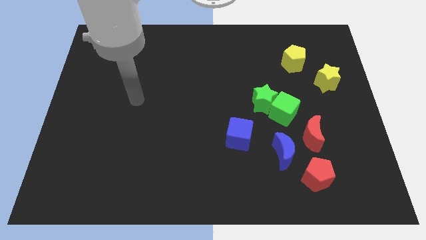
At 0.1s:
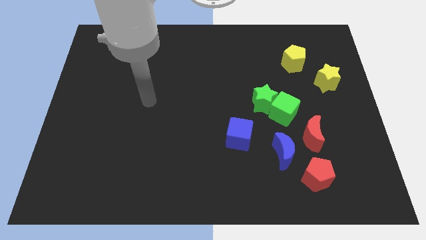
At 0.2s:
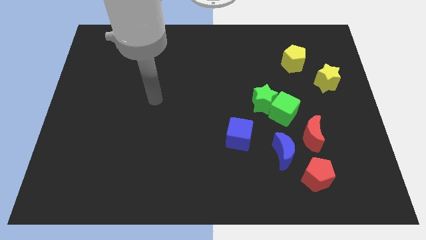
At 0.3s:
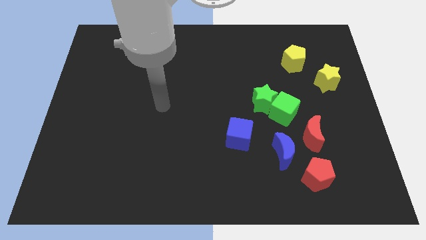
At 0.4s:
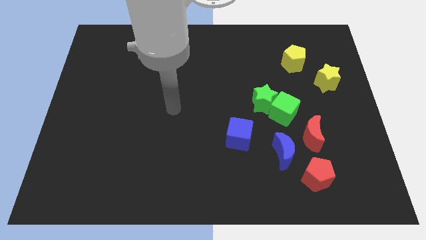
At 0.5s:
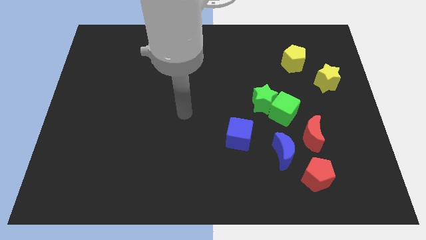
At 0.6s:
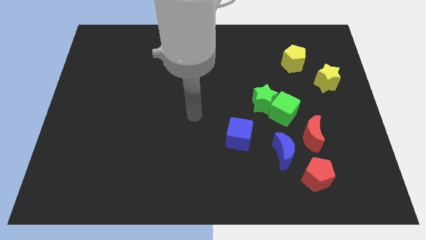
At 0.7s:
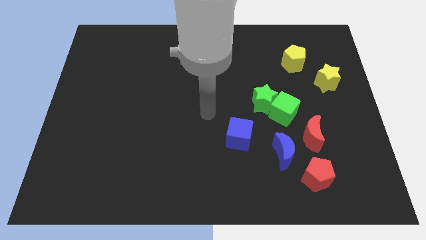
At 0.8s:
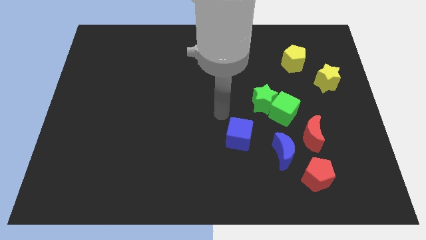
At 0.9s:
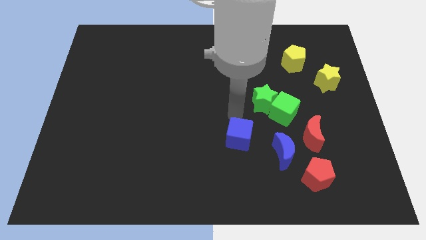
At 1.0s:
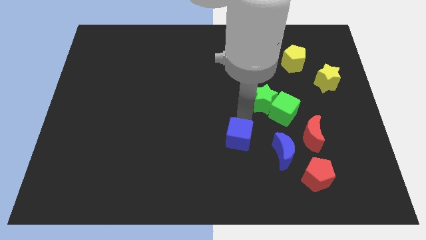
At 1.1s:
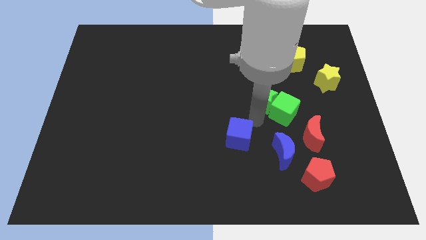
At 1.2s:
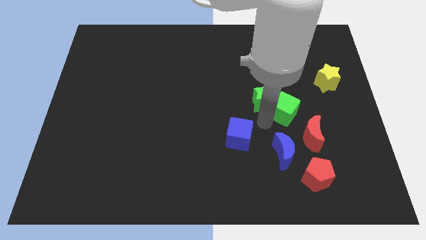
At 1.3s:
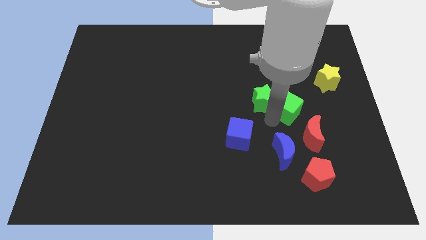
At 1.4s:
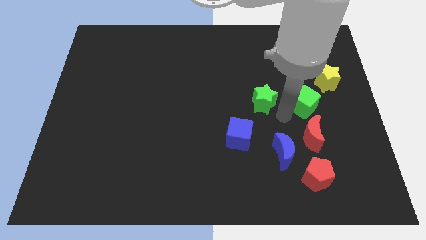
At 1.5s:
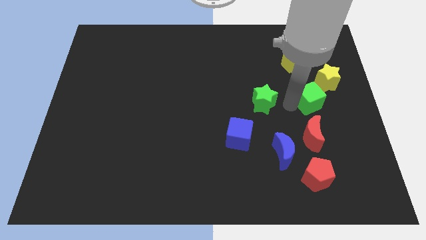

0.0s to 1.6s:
move the green star away from the green cube

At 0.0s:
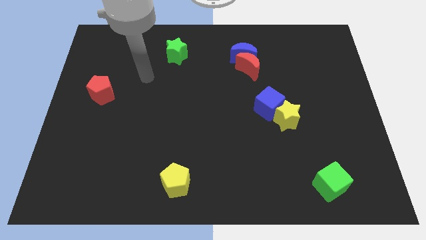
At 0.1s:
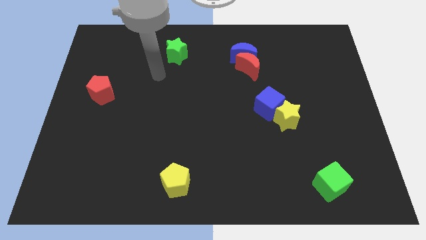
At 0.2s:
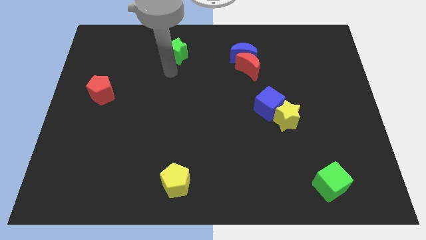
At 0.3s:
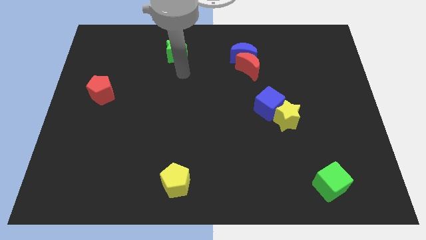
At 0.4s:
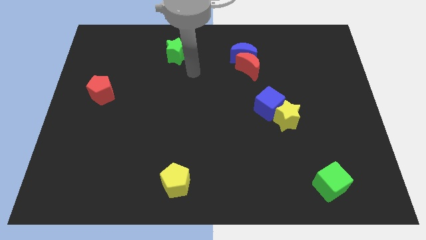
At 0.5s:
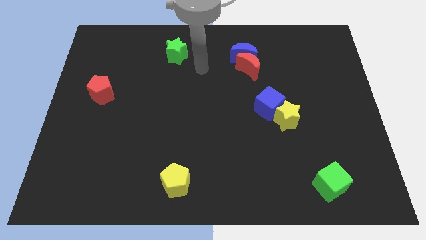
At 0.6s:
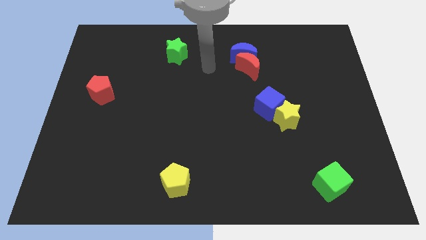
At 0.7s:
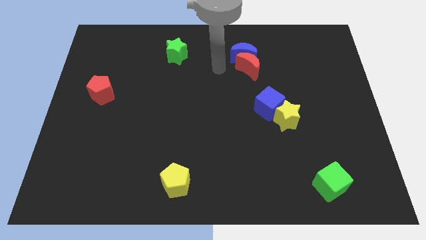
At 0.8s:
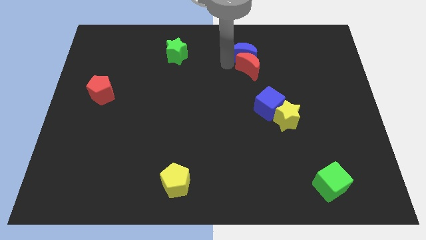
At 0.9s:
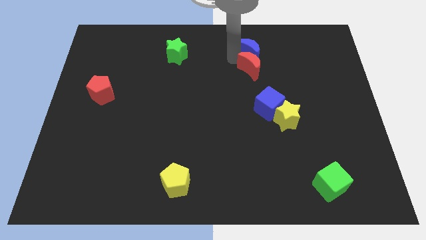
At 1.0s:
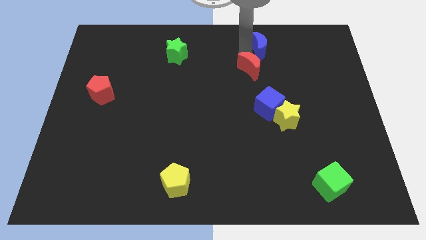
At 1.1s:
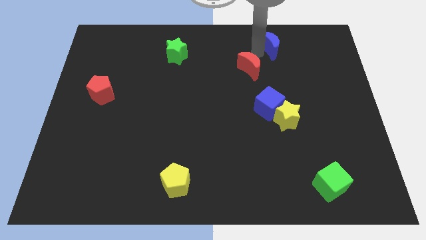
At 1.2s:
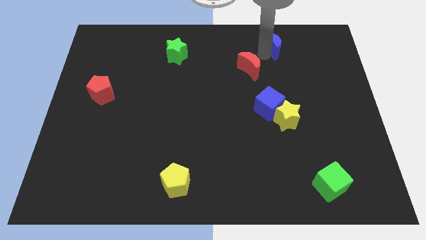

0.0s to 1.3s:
separate the red moon from the blue moon

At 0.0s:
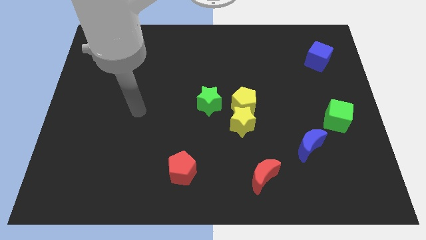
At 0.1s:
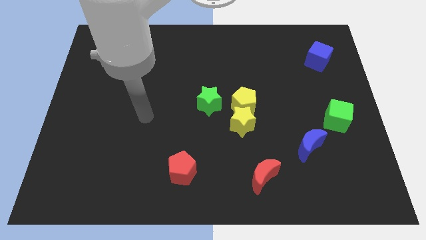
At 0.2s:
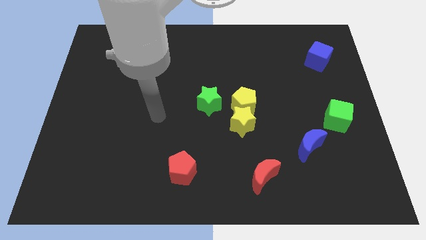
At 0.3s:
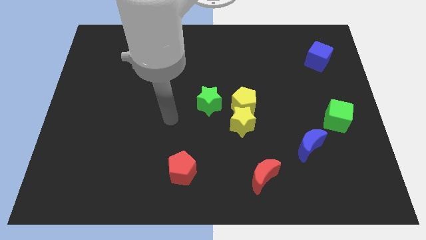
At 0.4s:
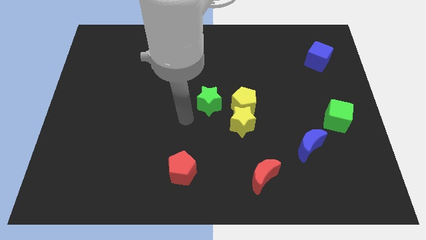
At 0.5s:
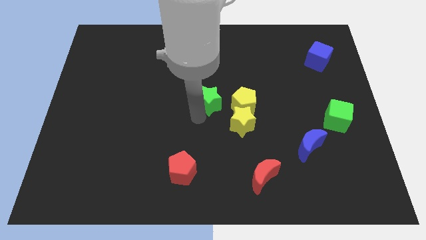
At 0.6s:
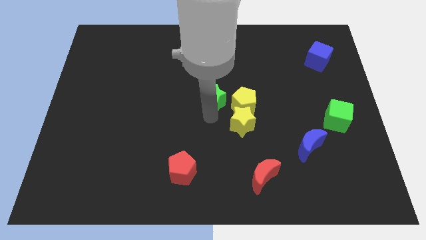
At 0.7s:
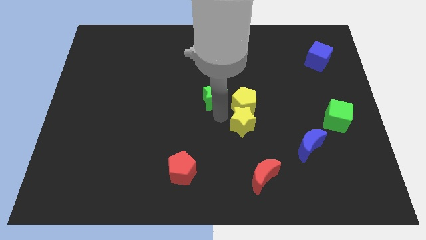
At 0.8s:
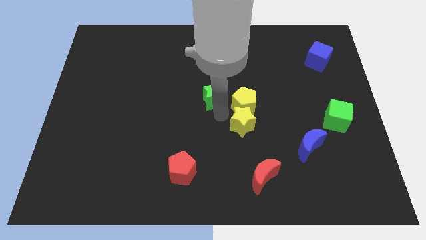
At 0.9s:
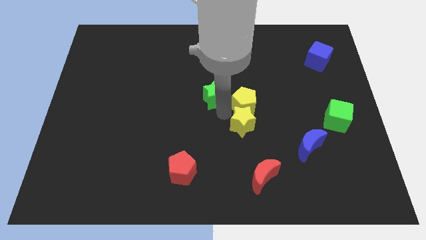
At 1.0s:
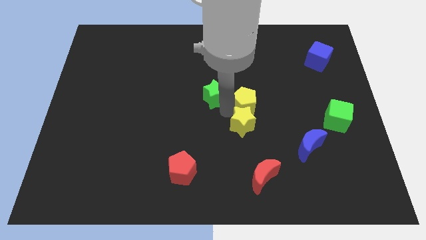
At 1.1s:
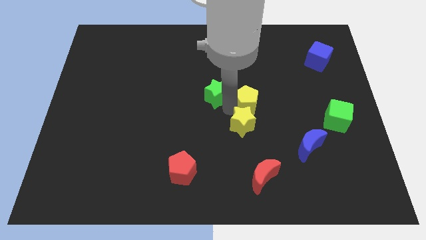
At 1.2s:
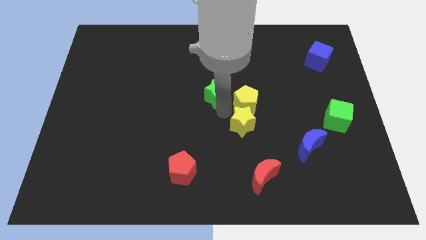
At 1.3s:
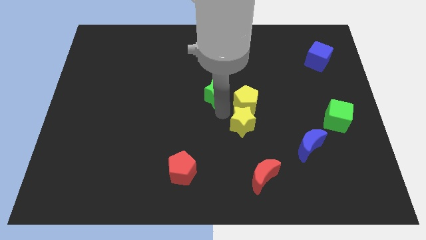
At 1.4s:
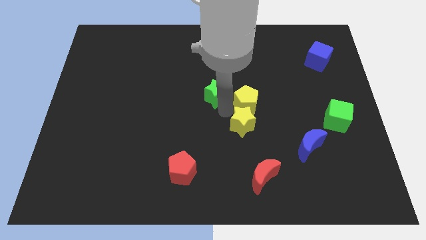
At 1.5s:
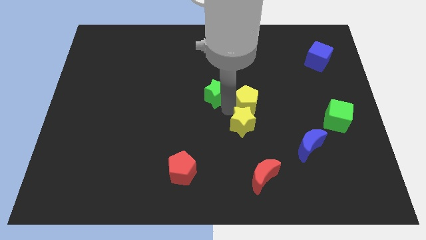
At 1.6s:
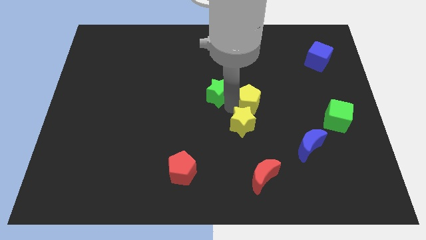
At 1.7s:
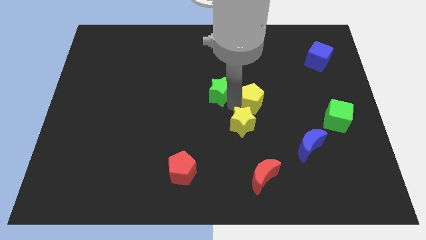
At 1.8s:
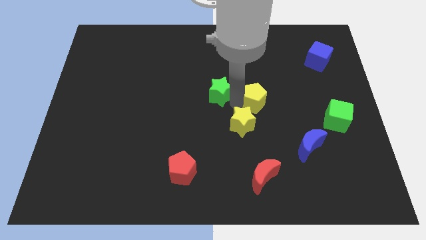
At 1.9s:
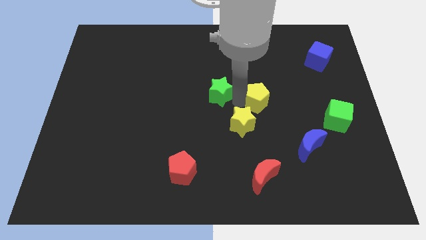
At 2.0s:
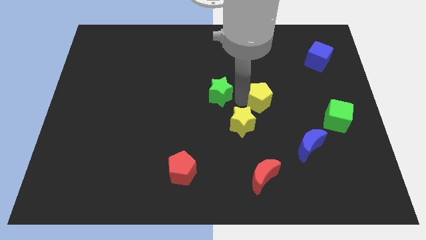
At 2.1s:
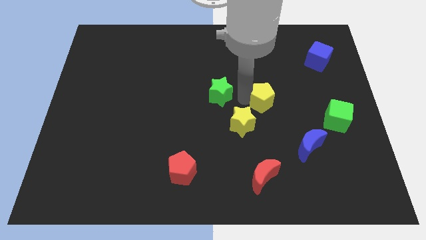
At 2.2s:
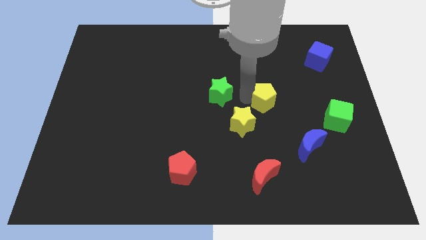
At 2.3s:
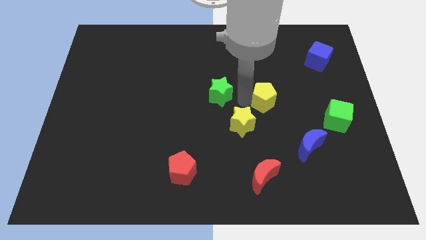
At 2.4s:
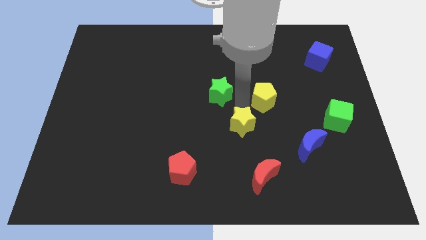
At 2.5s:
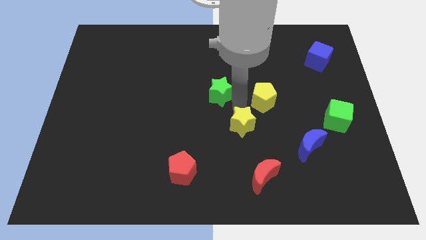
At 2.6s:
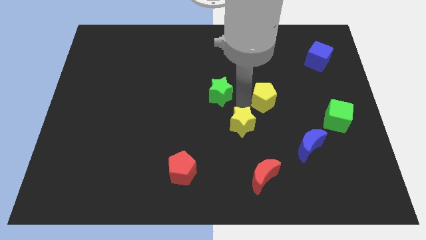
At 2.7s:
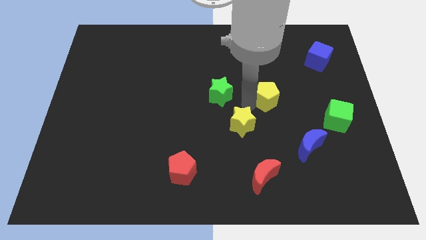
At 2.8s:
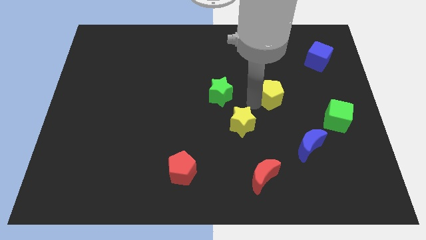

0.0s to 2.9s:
move the yellow pentagon away from the yellow star and green star

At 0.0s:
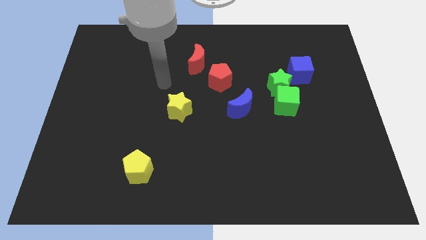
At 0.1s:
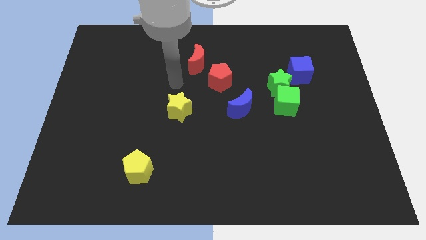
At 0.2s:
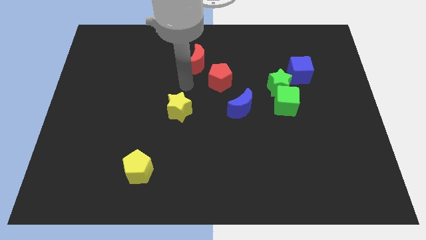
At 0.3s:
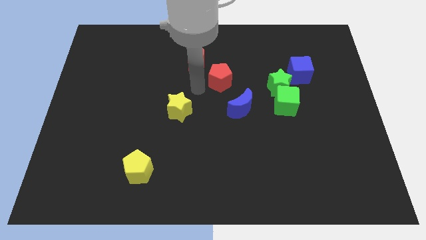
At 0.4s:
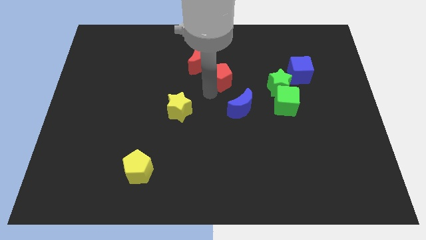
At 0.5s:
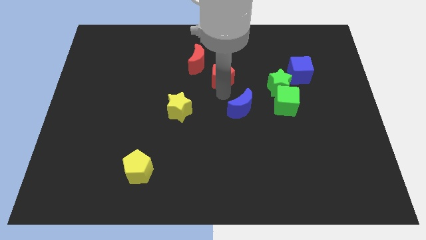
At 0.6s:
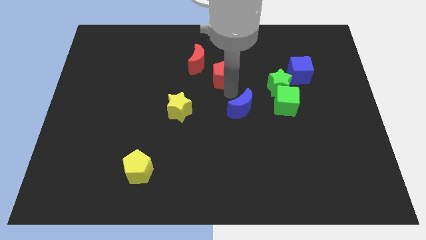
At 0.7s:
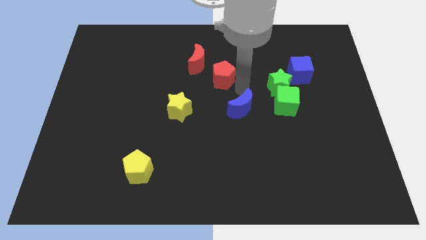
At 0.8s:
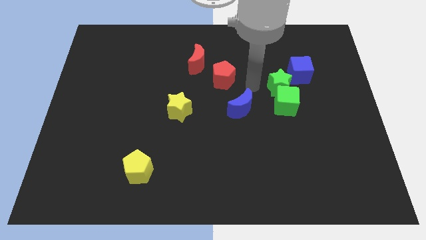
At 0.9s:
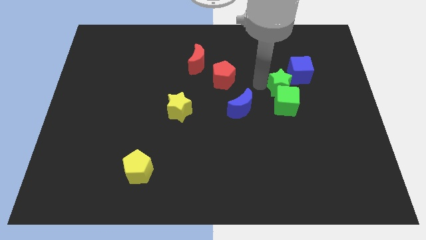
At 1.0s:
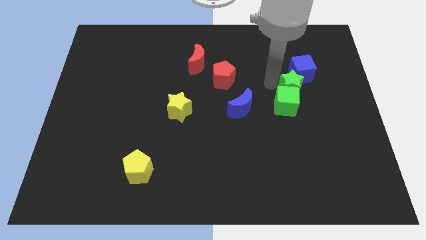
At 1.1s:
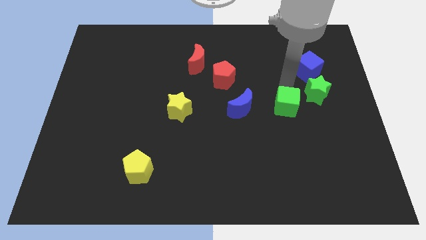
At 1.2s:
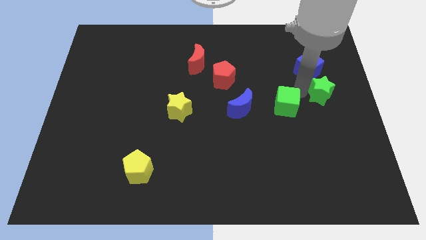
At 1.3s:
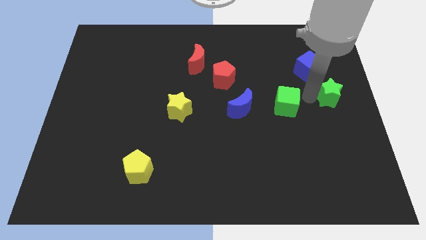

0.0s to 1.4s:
move the green cube away from the green star

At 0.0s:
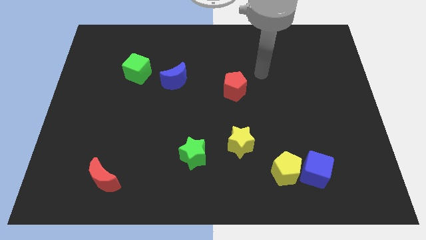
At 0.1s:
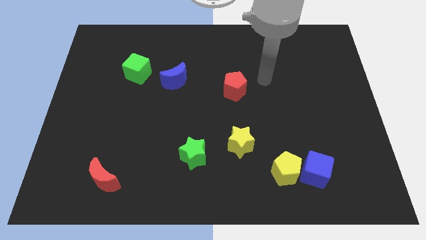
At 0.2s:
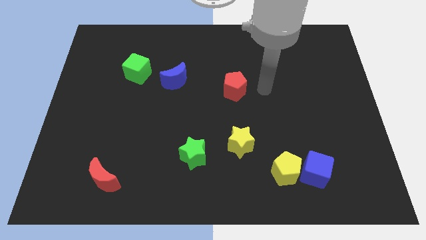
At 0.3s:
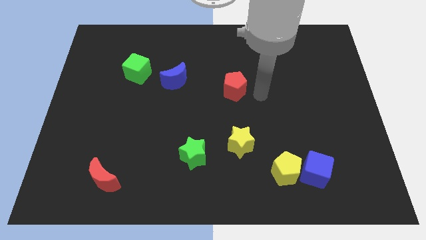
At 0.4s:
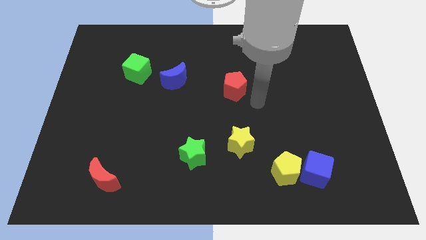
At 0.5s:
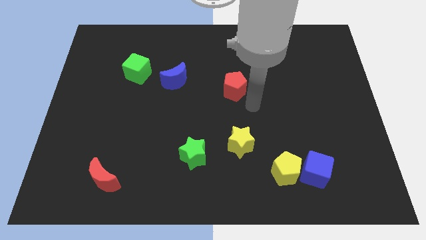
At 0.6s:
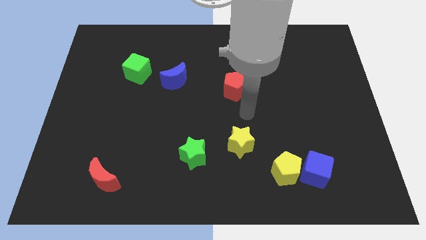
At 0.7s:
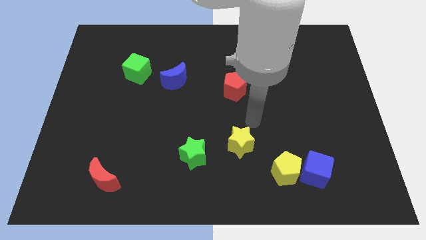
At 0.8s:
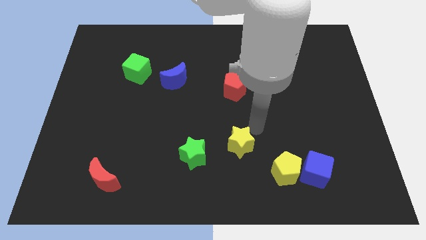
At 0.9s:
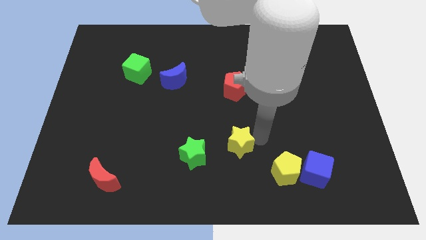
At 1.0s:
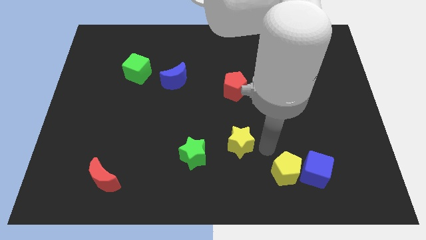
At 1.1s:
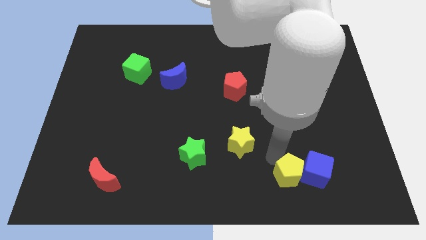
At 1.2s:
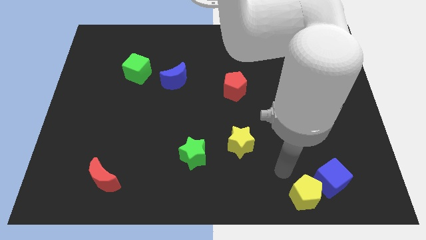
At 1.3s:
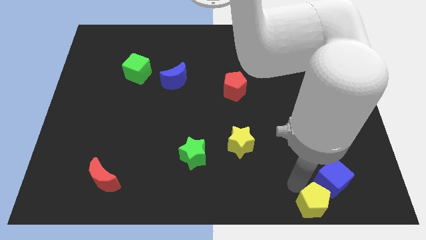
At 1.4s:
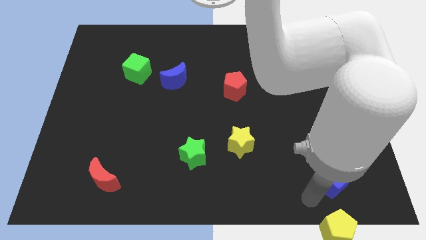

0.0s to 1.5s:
separate the blue cube from the yellow pentagon

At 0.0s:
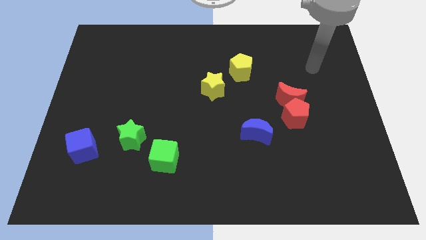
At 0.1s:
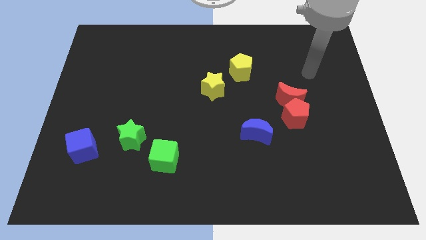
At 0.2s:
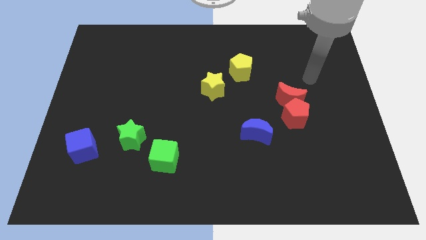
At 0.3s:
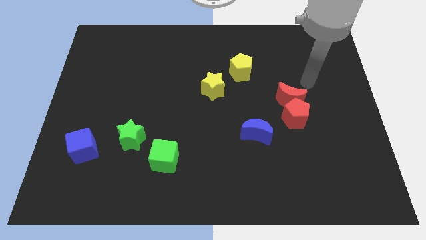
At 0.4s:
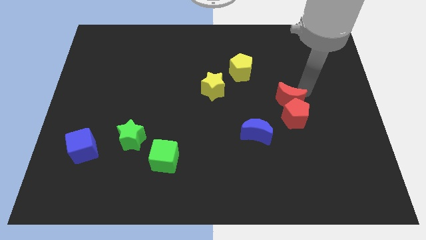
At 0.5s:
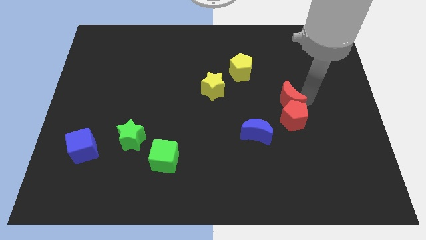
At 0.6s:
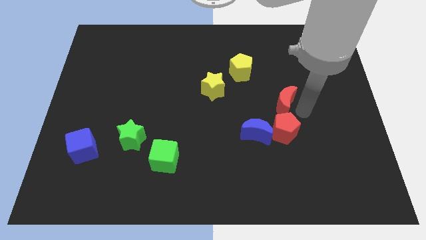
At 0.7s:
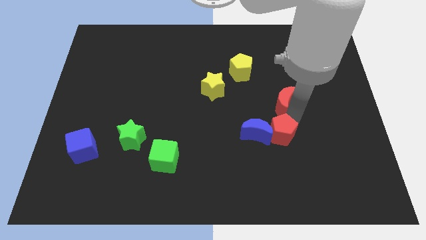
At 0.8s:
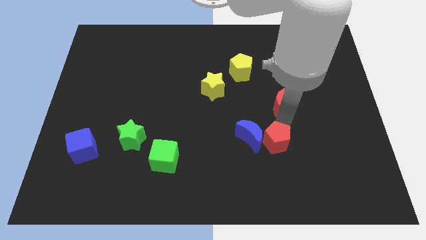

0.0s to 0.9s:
separate the red moon from the red pentagon
